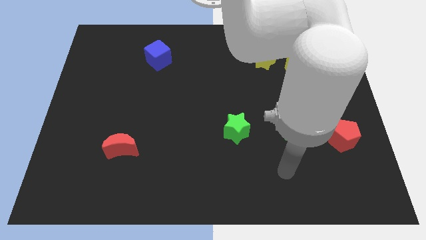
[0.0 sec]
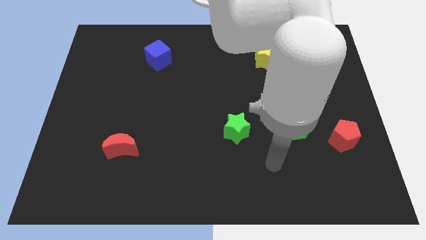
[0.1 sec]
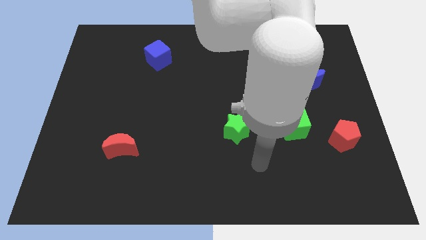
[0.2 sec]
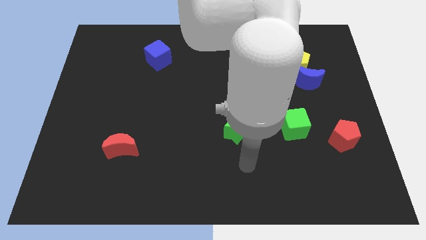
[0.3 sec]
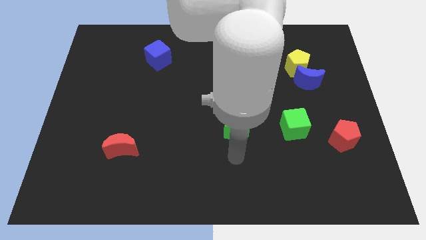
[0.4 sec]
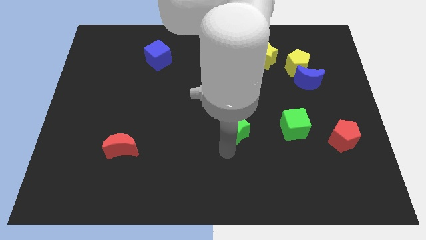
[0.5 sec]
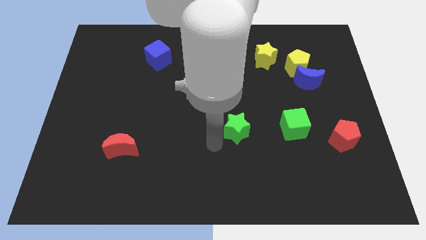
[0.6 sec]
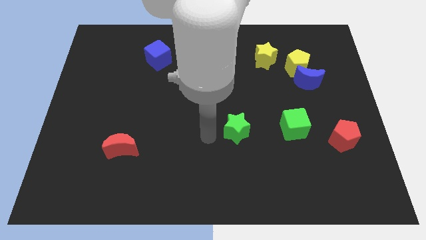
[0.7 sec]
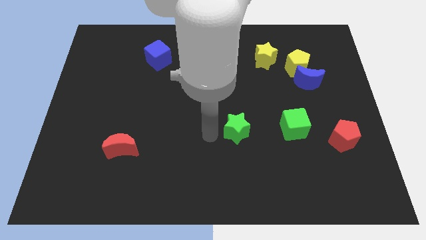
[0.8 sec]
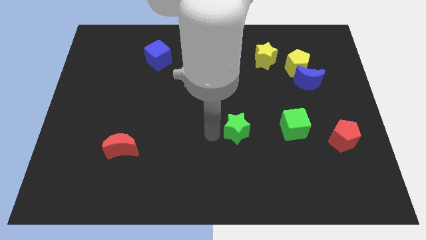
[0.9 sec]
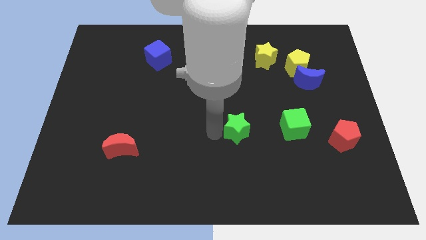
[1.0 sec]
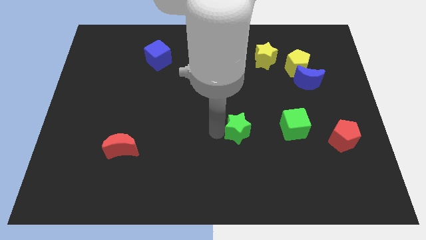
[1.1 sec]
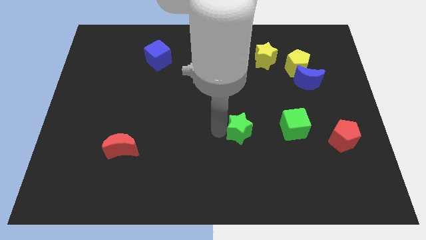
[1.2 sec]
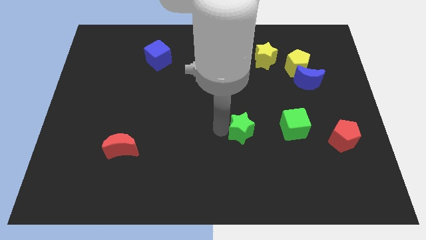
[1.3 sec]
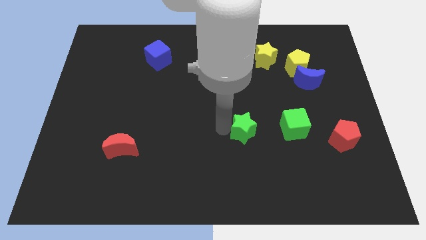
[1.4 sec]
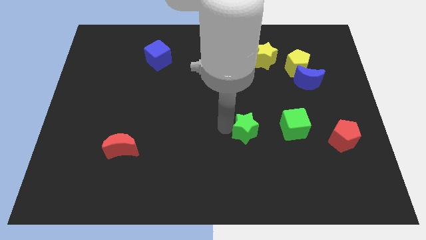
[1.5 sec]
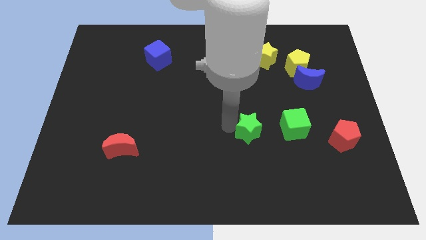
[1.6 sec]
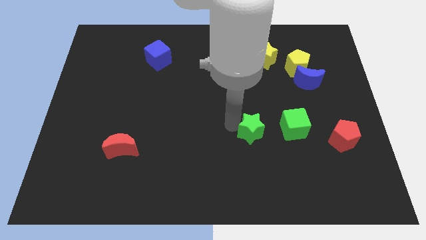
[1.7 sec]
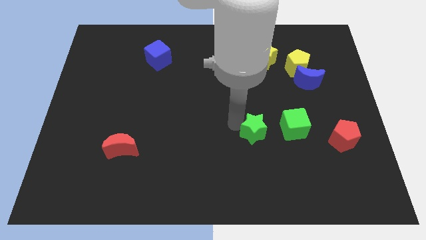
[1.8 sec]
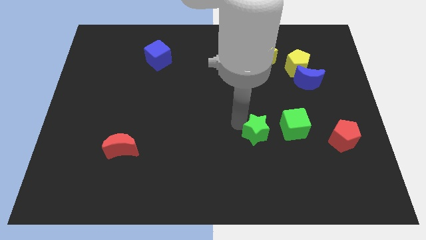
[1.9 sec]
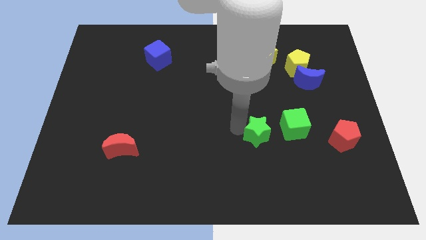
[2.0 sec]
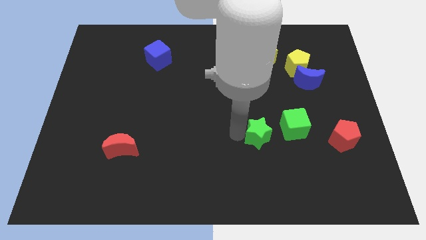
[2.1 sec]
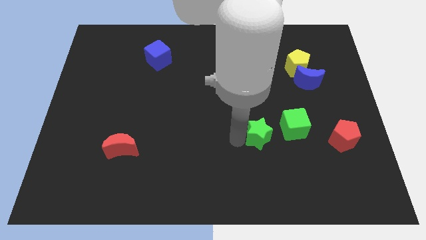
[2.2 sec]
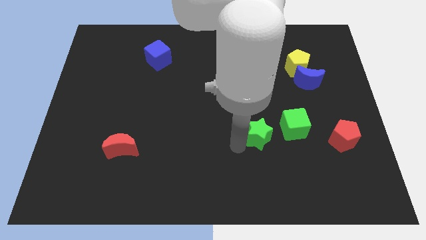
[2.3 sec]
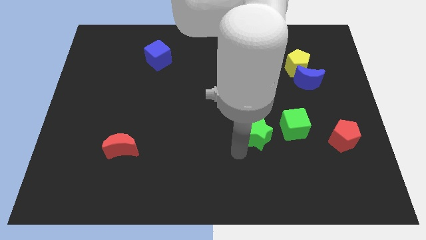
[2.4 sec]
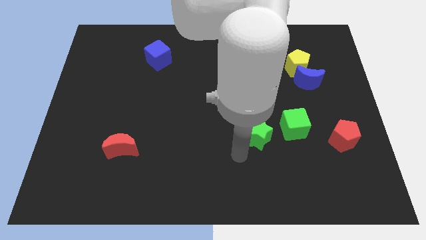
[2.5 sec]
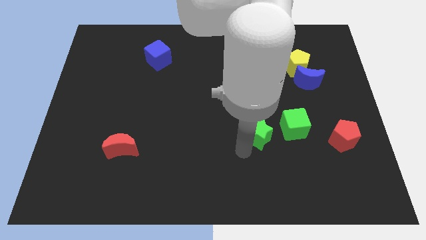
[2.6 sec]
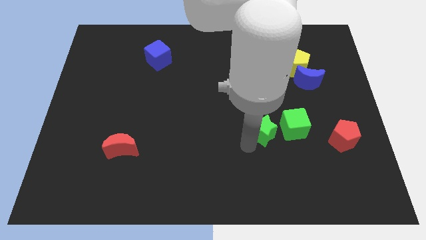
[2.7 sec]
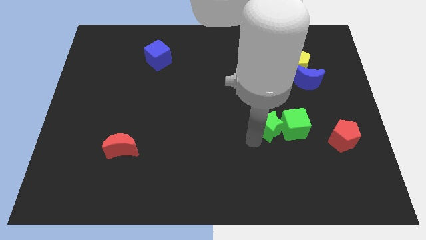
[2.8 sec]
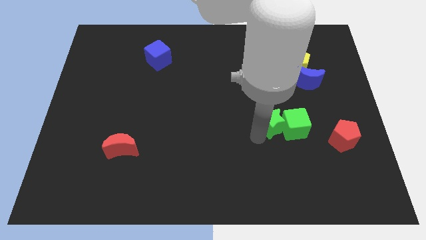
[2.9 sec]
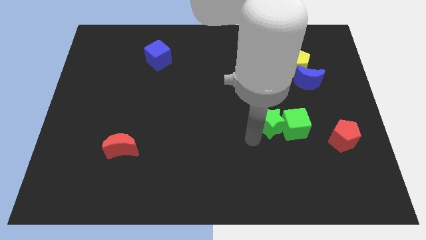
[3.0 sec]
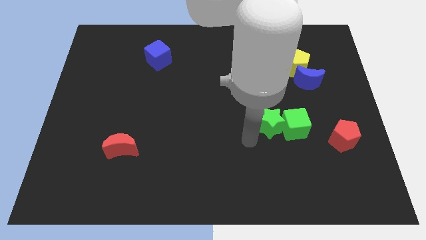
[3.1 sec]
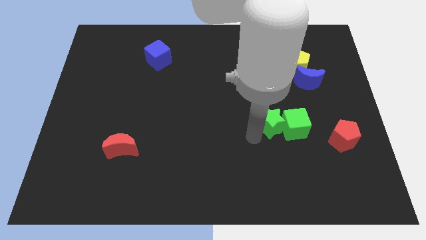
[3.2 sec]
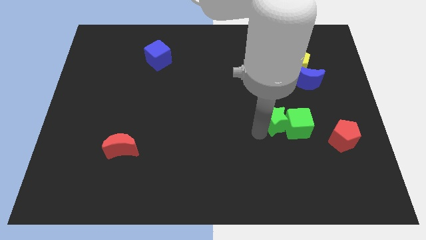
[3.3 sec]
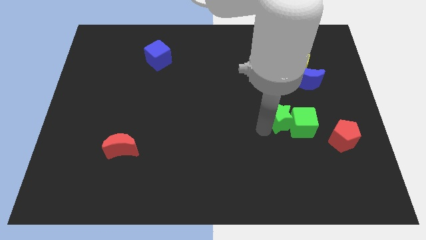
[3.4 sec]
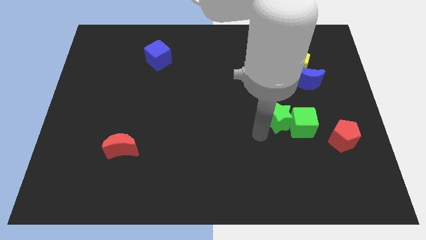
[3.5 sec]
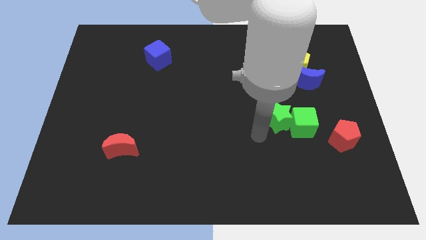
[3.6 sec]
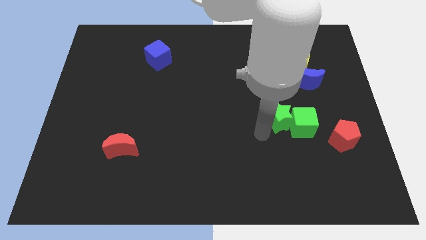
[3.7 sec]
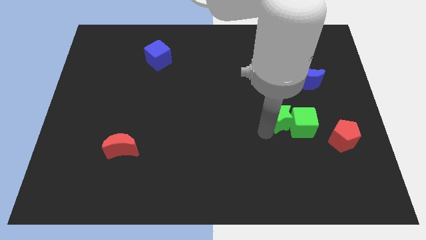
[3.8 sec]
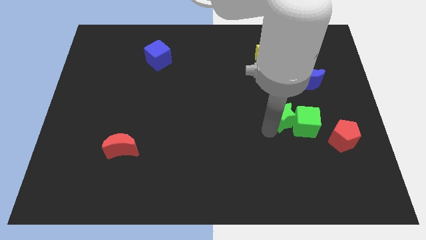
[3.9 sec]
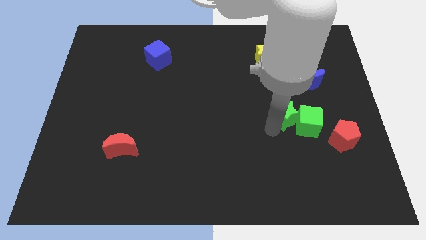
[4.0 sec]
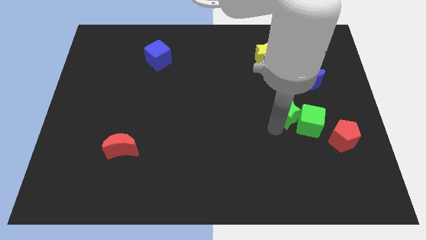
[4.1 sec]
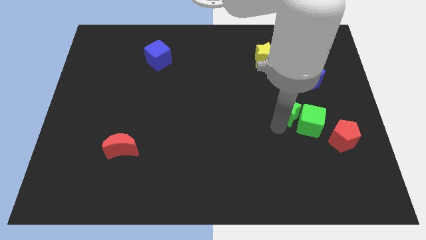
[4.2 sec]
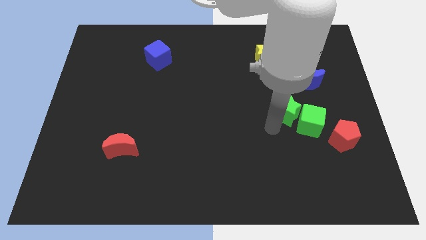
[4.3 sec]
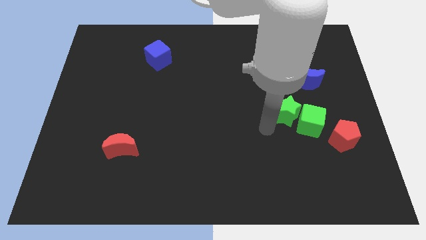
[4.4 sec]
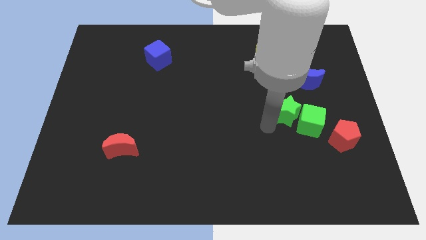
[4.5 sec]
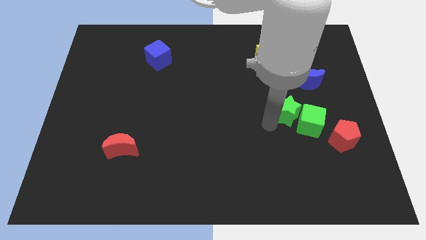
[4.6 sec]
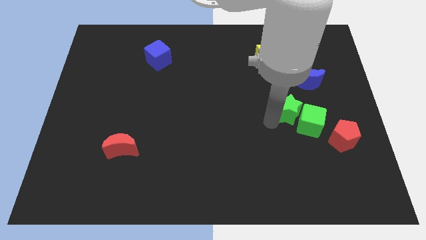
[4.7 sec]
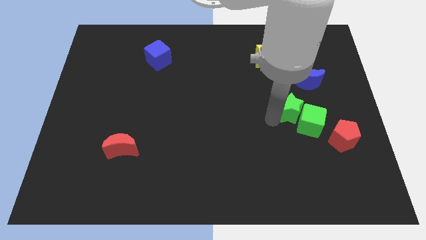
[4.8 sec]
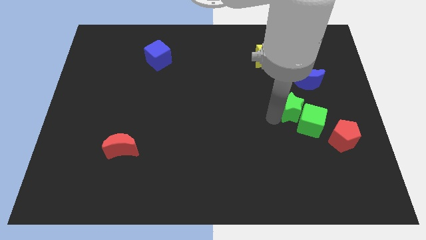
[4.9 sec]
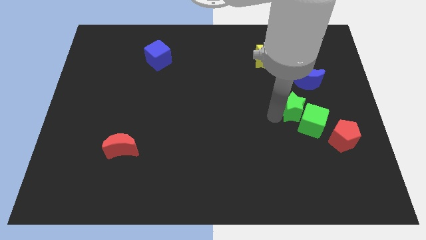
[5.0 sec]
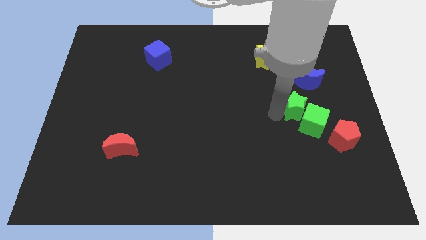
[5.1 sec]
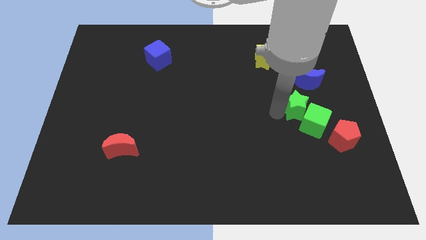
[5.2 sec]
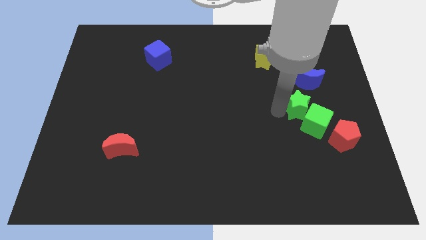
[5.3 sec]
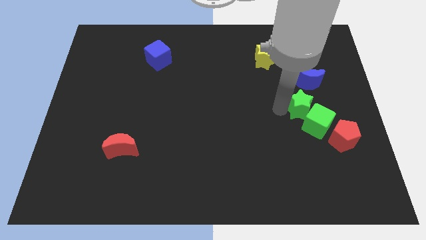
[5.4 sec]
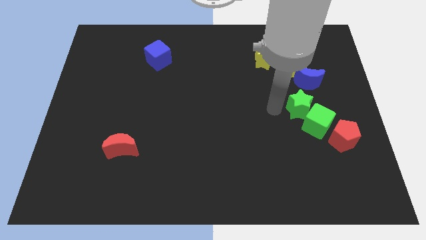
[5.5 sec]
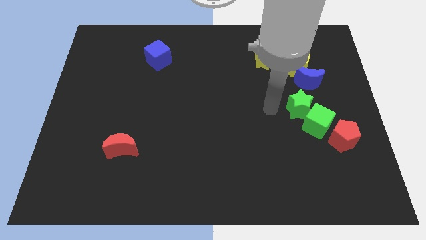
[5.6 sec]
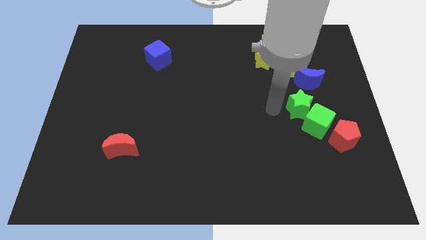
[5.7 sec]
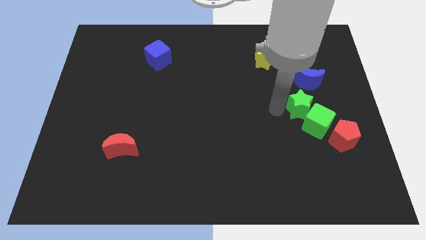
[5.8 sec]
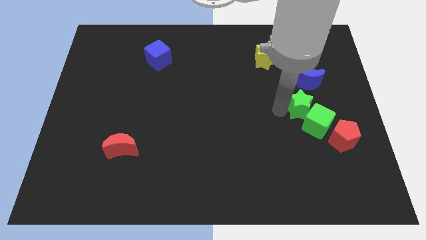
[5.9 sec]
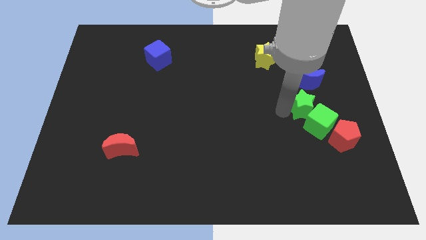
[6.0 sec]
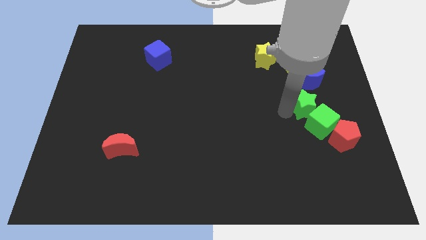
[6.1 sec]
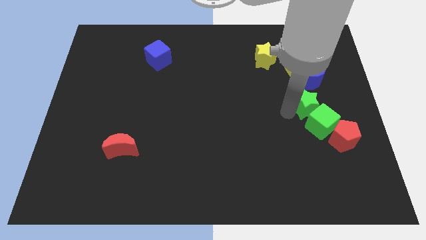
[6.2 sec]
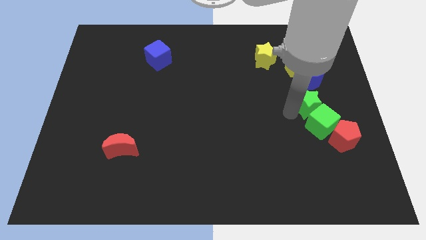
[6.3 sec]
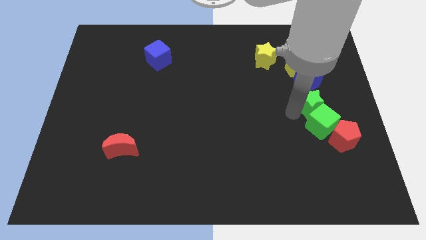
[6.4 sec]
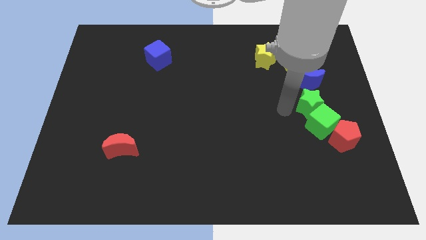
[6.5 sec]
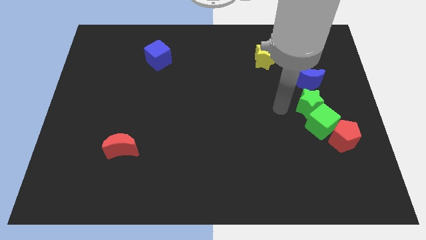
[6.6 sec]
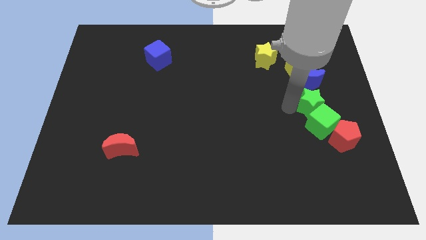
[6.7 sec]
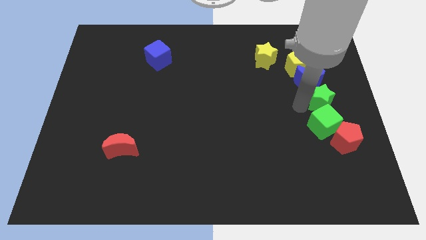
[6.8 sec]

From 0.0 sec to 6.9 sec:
push the green star to the center right
